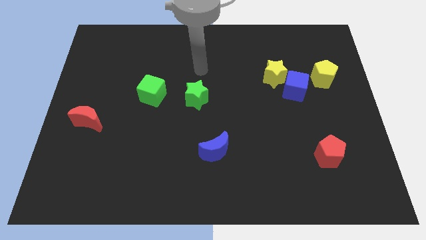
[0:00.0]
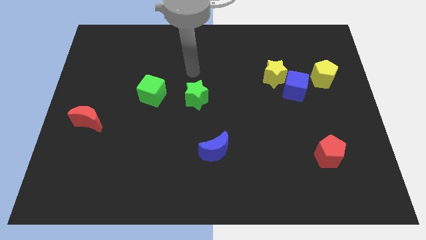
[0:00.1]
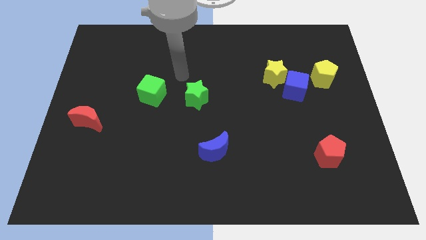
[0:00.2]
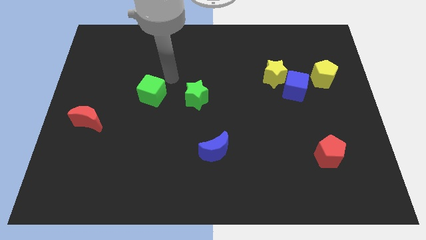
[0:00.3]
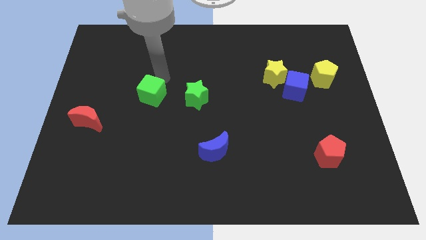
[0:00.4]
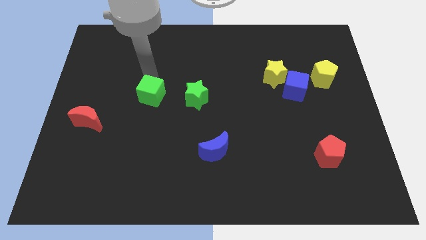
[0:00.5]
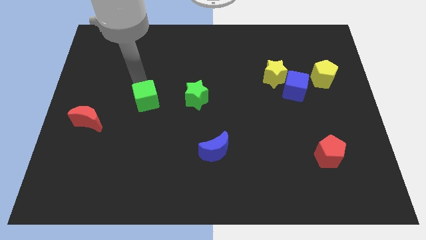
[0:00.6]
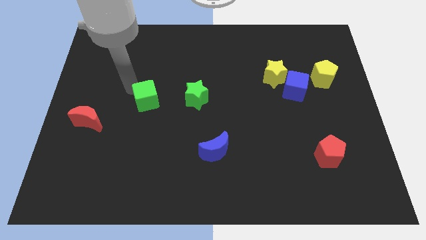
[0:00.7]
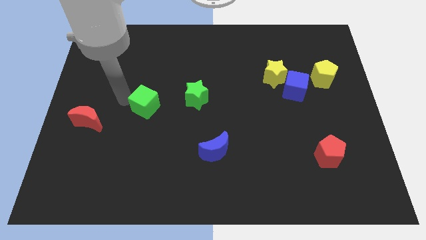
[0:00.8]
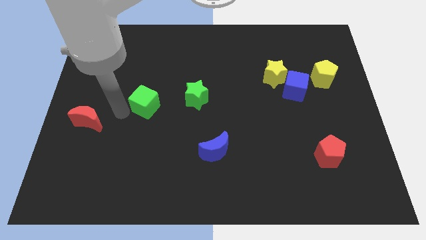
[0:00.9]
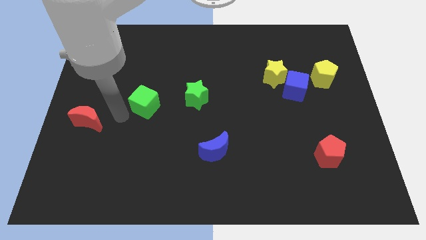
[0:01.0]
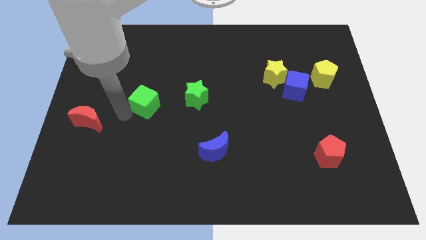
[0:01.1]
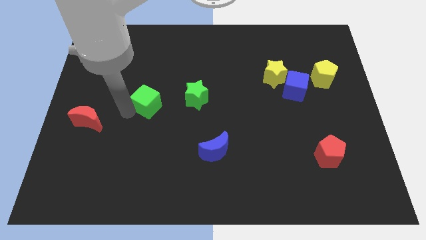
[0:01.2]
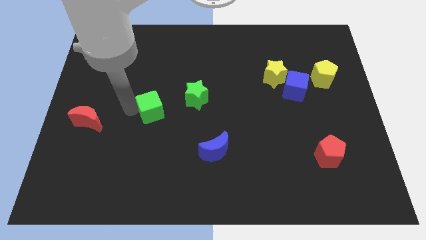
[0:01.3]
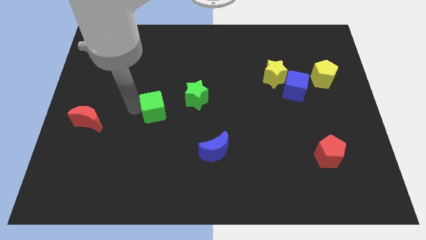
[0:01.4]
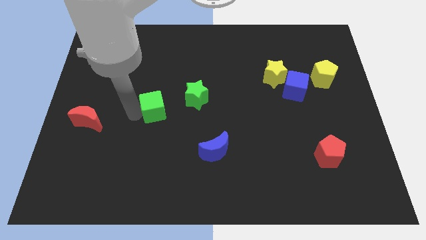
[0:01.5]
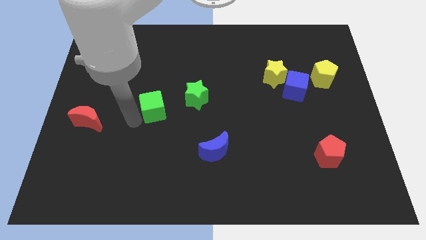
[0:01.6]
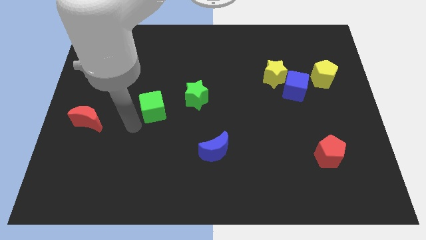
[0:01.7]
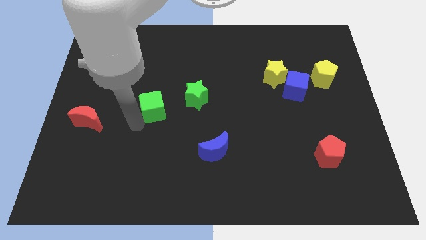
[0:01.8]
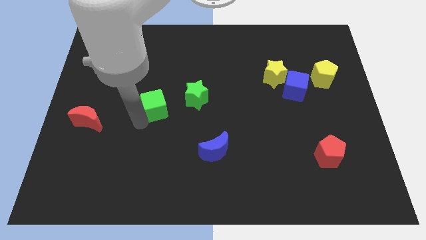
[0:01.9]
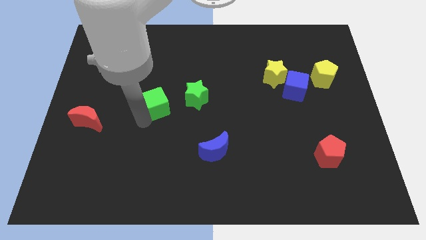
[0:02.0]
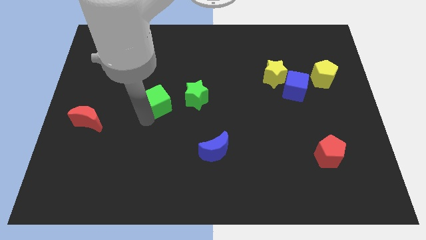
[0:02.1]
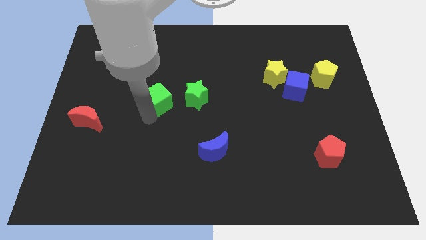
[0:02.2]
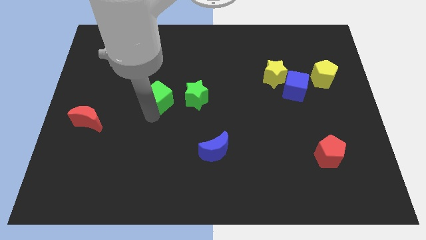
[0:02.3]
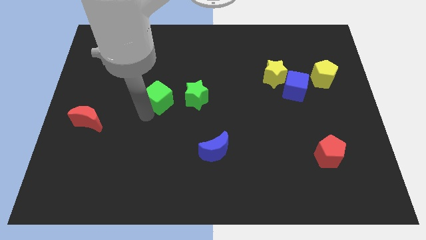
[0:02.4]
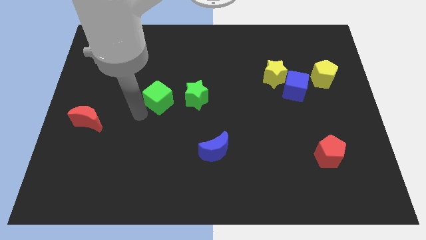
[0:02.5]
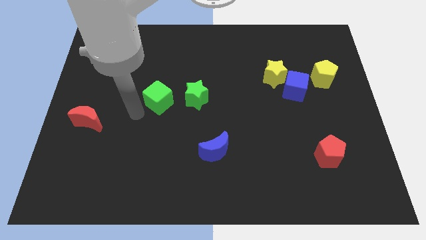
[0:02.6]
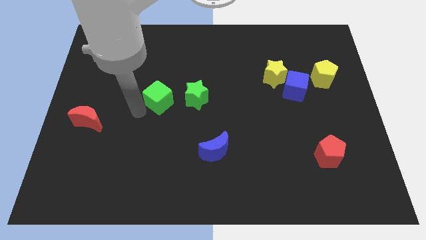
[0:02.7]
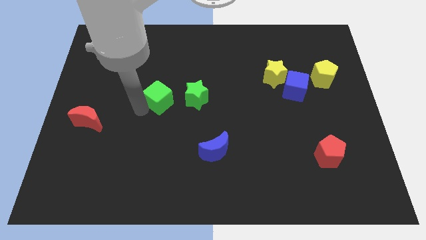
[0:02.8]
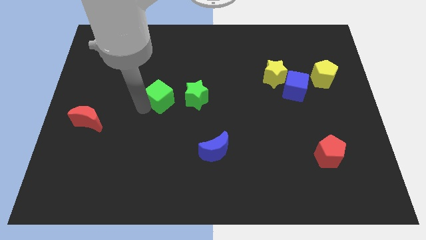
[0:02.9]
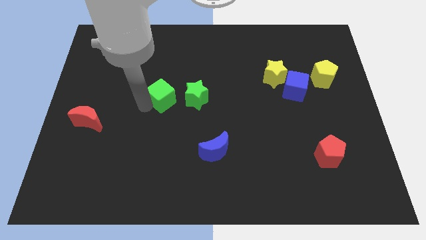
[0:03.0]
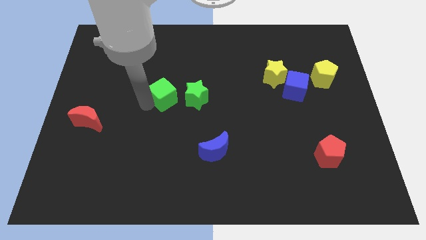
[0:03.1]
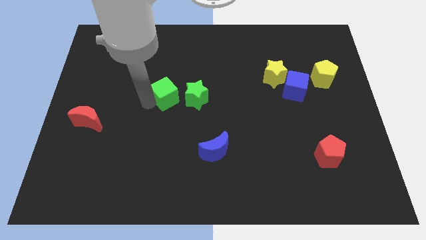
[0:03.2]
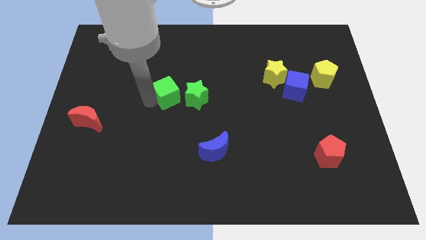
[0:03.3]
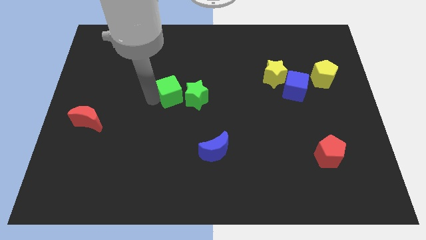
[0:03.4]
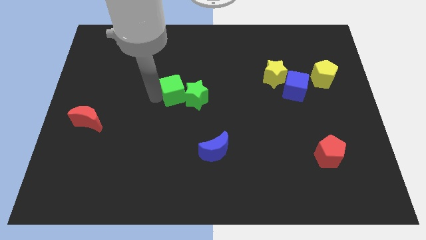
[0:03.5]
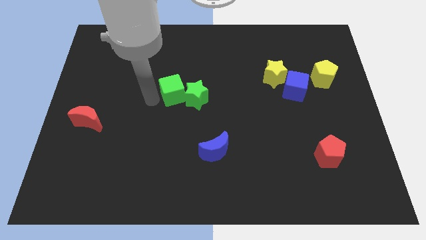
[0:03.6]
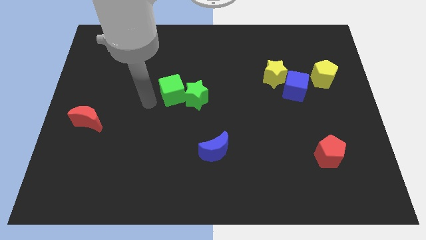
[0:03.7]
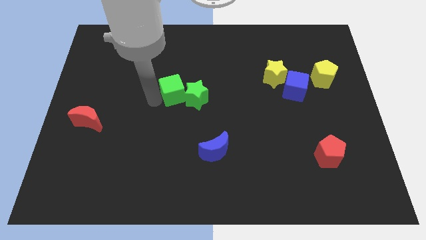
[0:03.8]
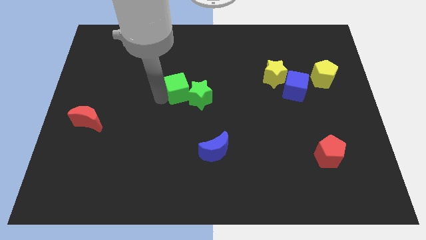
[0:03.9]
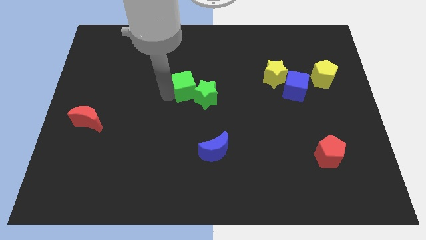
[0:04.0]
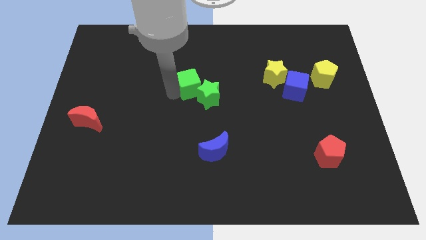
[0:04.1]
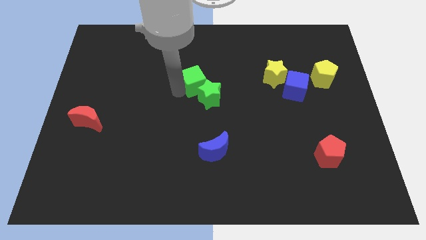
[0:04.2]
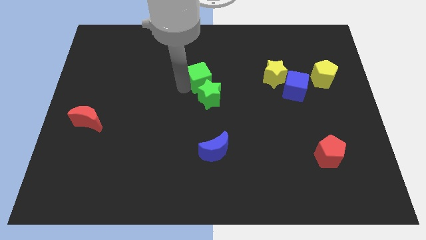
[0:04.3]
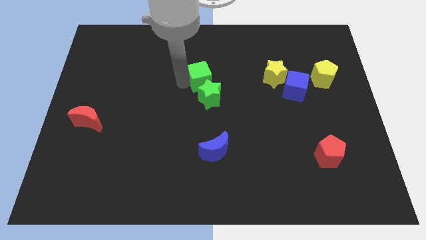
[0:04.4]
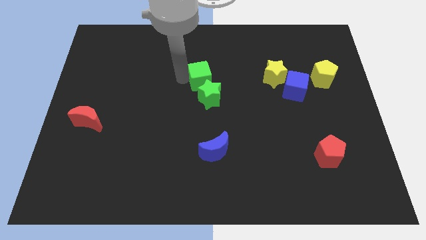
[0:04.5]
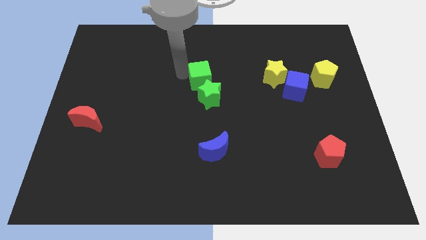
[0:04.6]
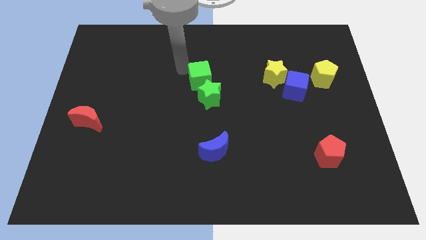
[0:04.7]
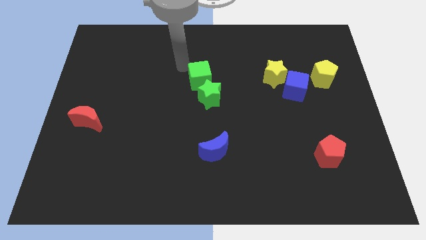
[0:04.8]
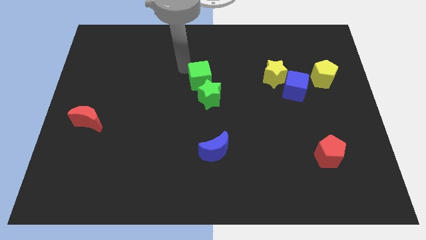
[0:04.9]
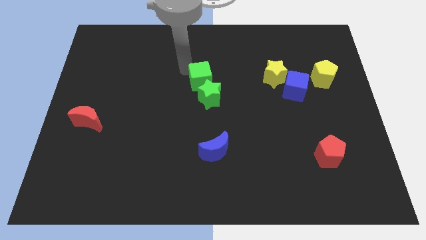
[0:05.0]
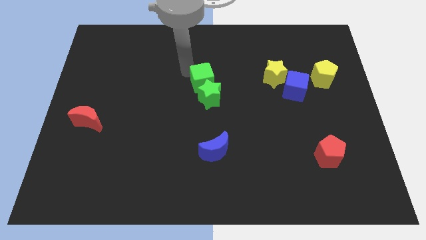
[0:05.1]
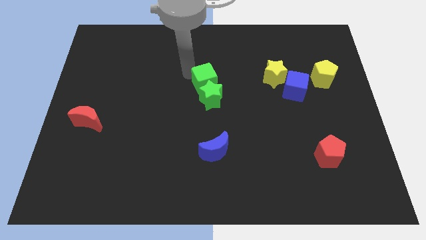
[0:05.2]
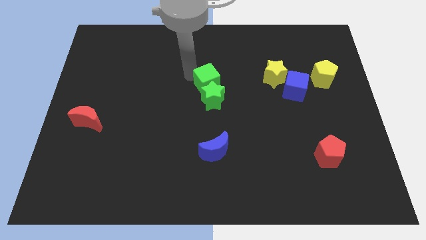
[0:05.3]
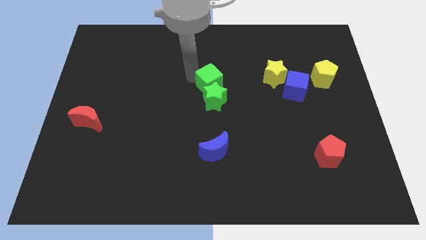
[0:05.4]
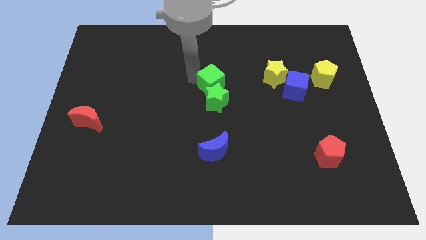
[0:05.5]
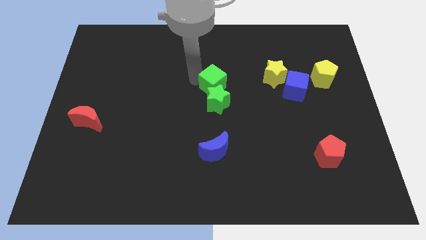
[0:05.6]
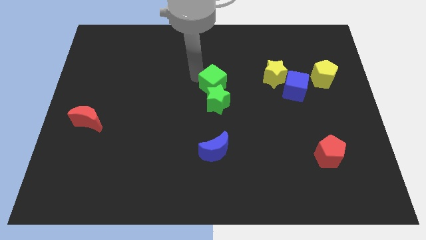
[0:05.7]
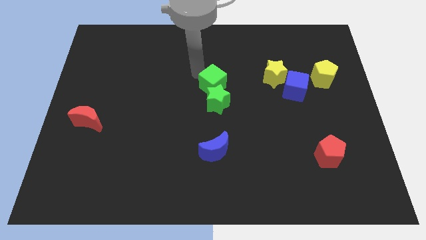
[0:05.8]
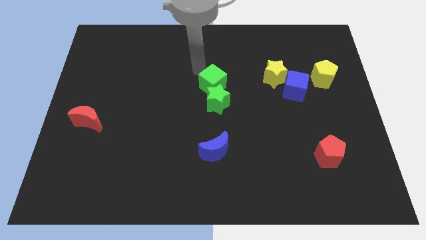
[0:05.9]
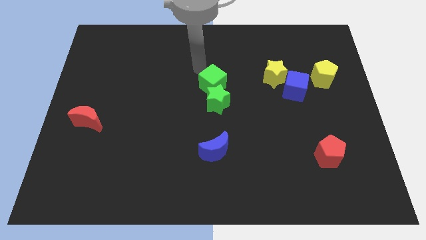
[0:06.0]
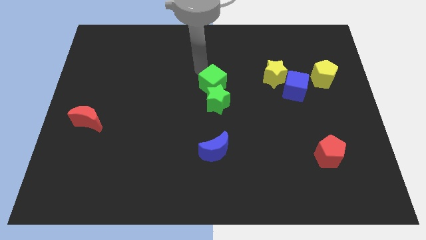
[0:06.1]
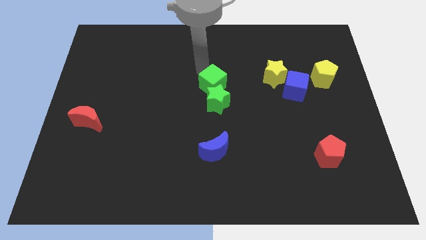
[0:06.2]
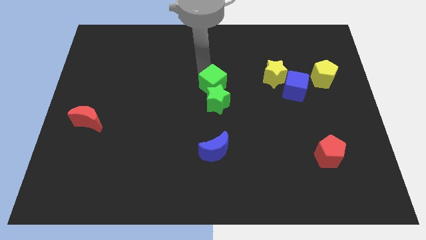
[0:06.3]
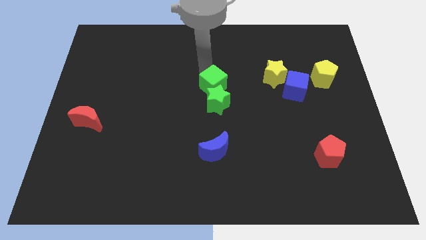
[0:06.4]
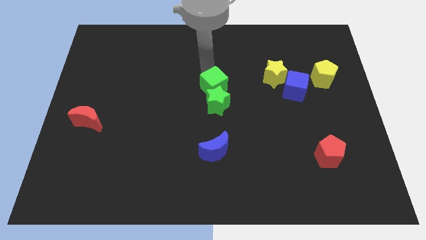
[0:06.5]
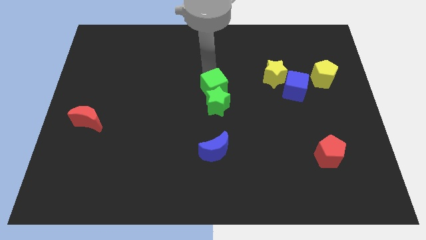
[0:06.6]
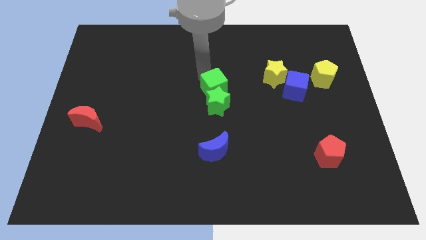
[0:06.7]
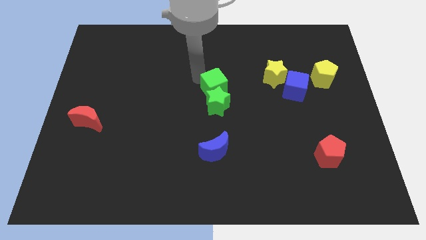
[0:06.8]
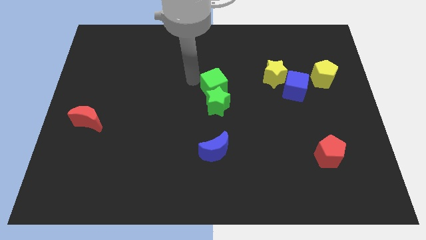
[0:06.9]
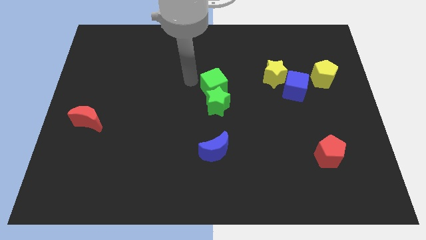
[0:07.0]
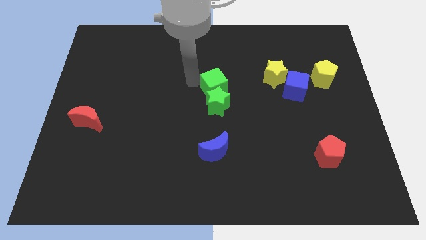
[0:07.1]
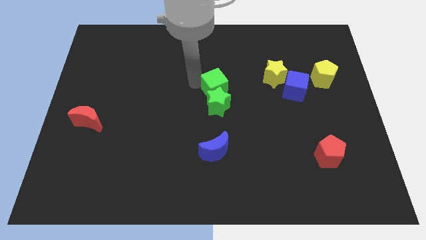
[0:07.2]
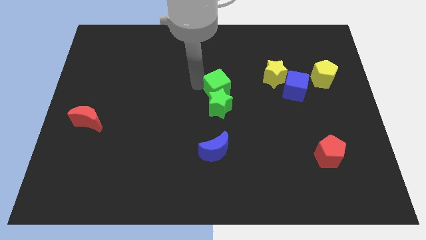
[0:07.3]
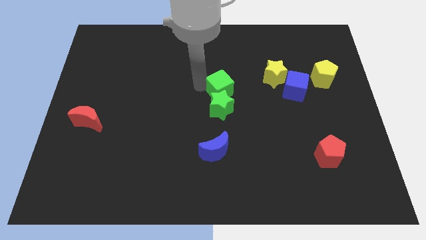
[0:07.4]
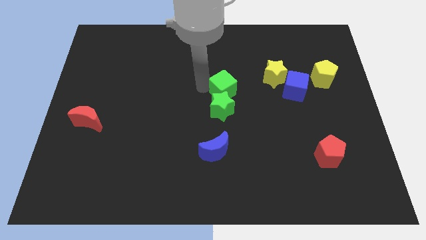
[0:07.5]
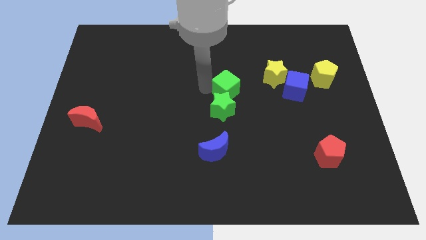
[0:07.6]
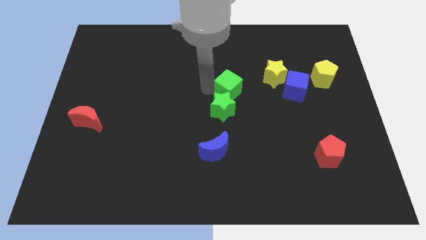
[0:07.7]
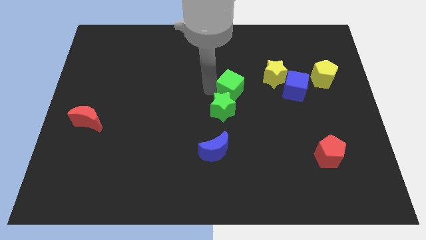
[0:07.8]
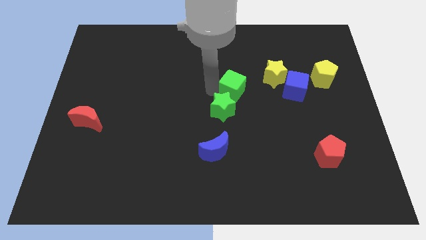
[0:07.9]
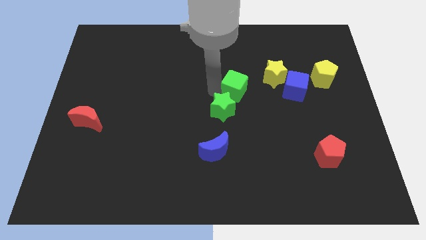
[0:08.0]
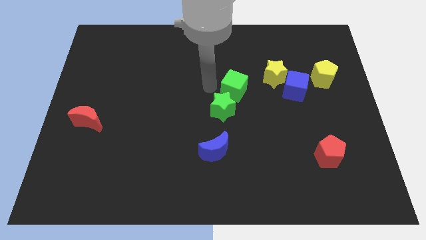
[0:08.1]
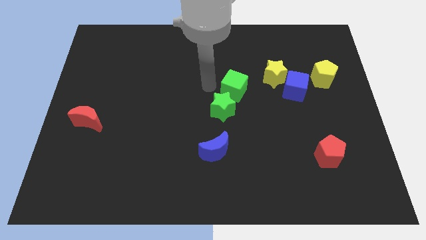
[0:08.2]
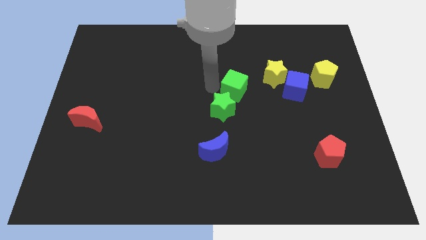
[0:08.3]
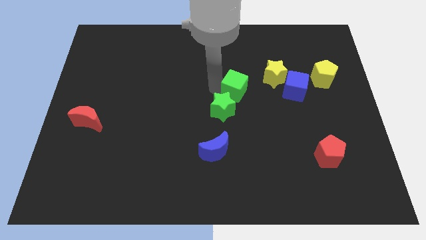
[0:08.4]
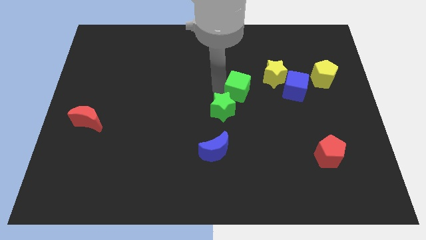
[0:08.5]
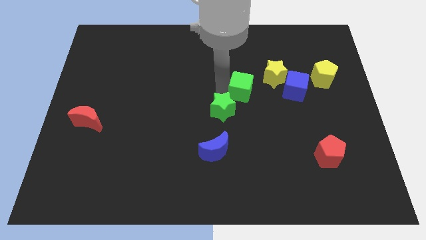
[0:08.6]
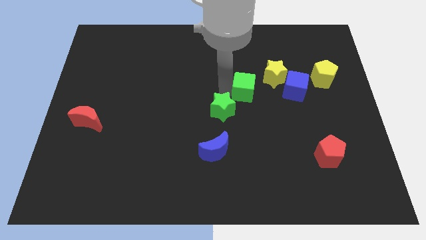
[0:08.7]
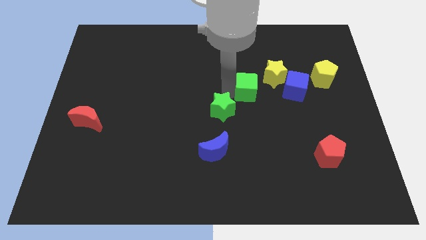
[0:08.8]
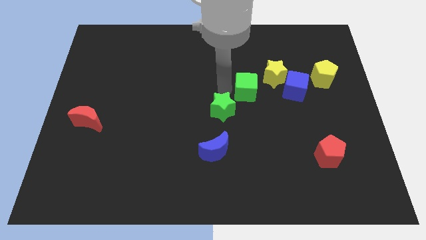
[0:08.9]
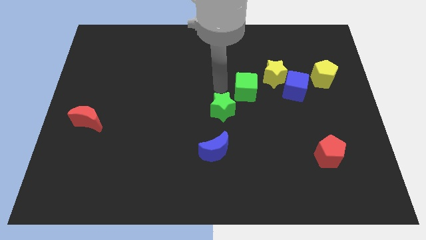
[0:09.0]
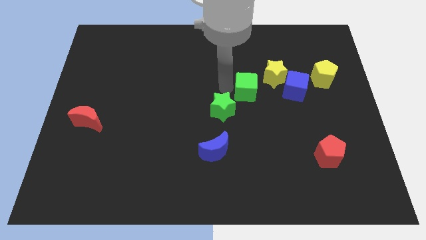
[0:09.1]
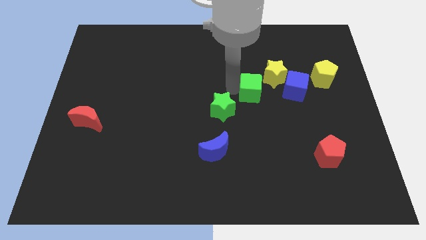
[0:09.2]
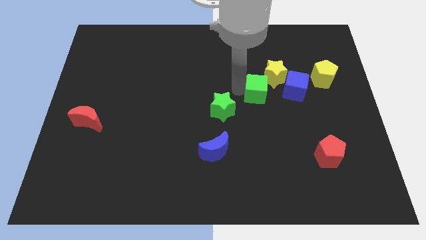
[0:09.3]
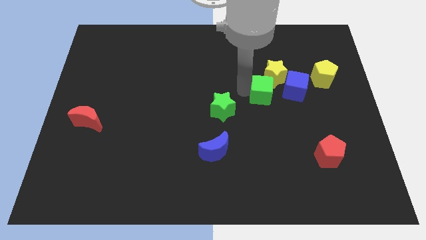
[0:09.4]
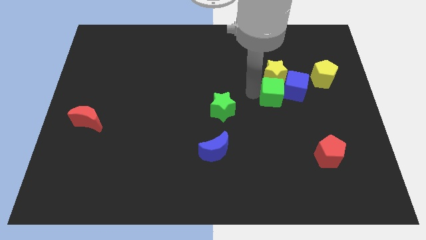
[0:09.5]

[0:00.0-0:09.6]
slide the green cube close to the blue cube
